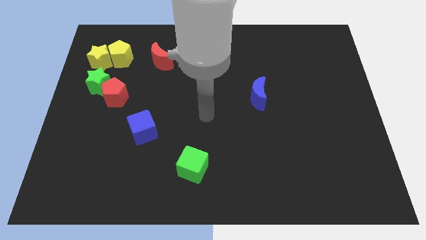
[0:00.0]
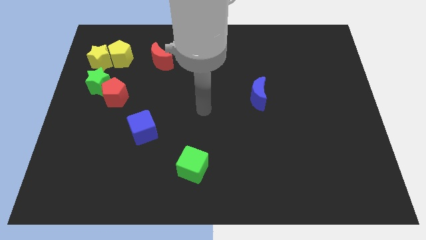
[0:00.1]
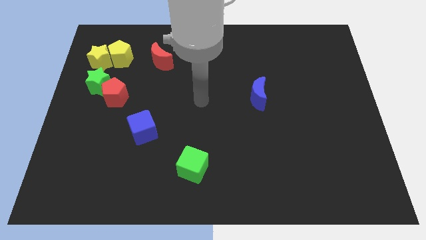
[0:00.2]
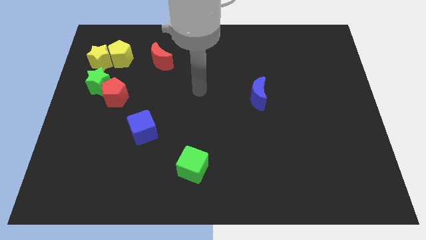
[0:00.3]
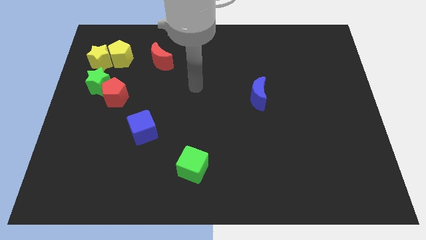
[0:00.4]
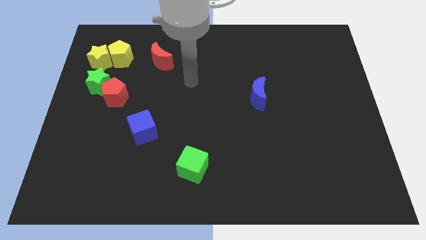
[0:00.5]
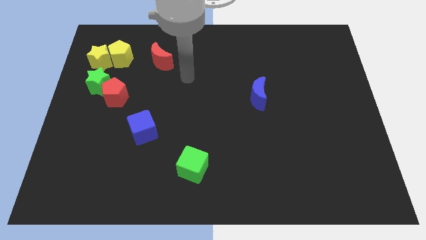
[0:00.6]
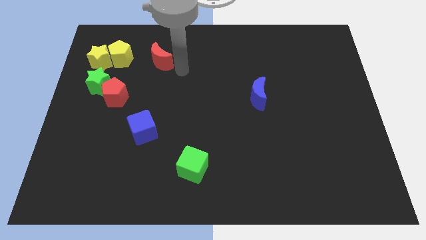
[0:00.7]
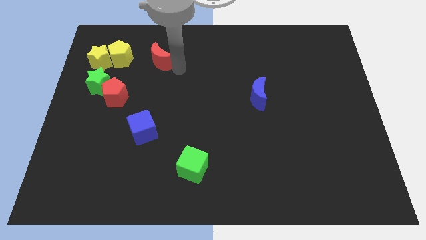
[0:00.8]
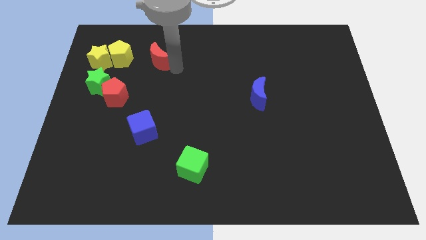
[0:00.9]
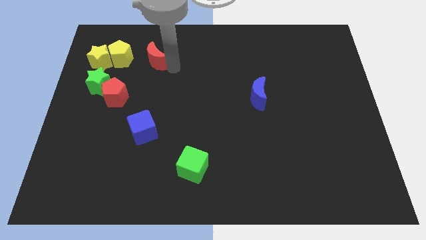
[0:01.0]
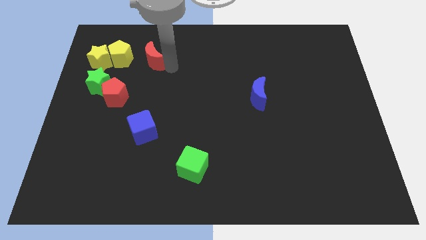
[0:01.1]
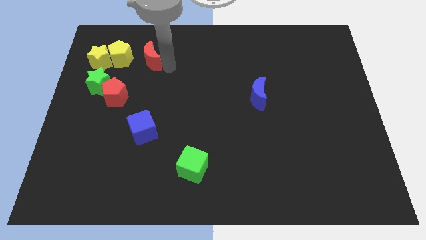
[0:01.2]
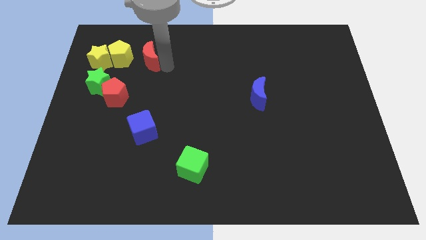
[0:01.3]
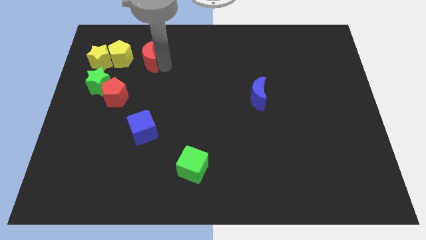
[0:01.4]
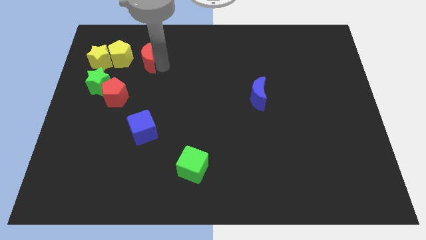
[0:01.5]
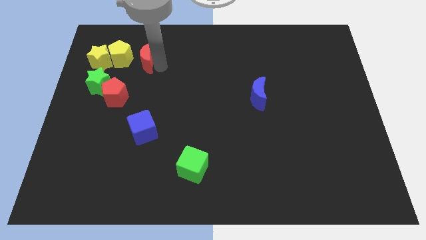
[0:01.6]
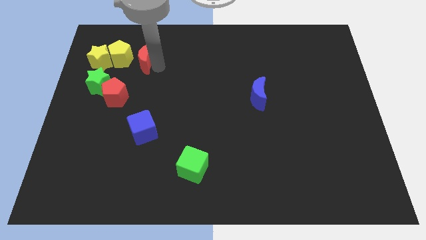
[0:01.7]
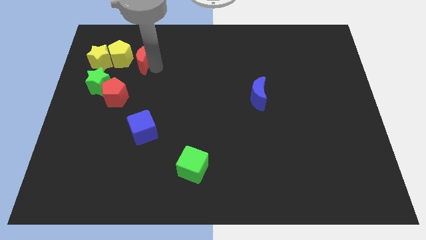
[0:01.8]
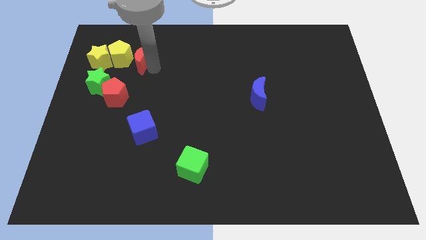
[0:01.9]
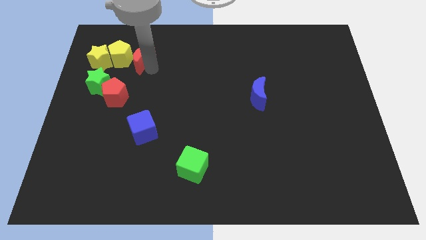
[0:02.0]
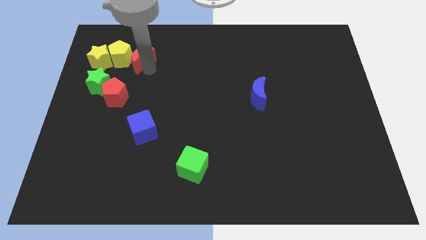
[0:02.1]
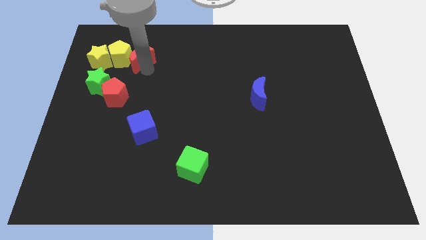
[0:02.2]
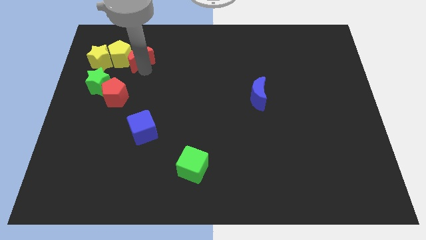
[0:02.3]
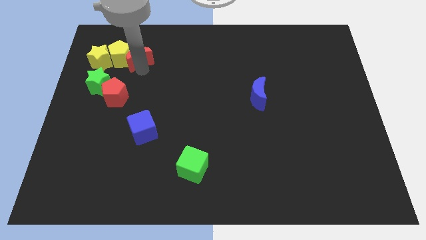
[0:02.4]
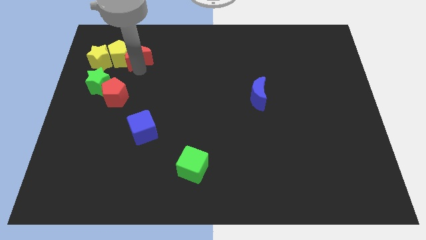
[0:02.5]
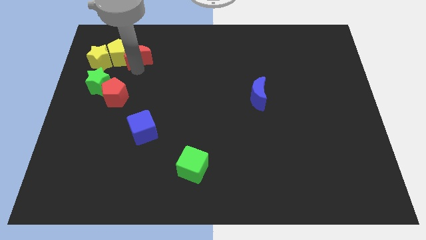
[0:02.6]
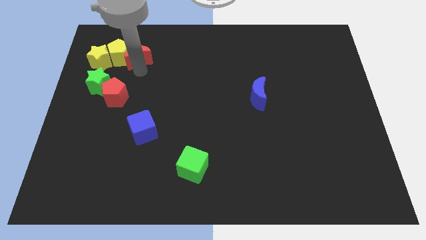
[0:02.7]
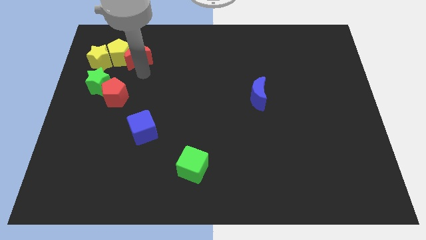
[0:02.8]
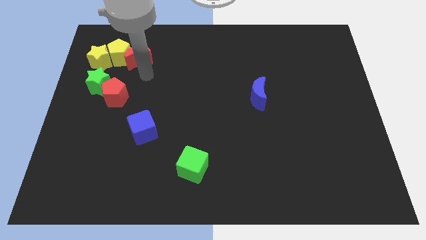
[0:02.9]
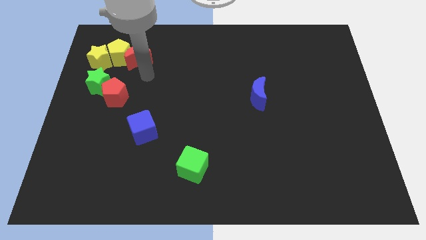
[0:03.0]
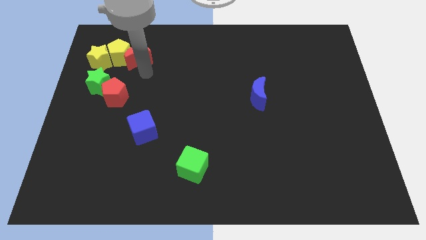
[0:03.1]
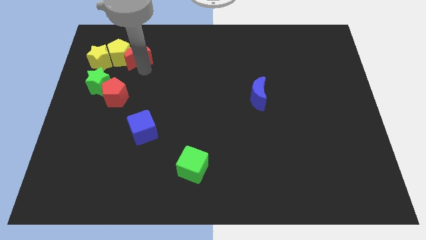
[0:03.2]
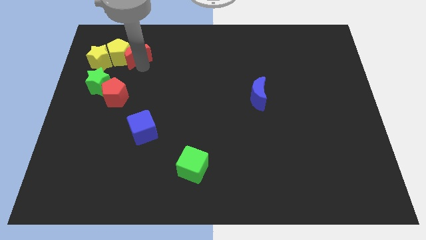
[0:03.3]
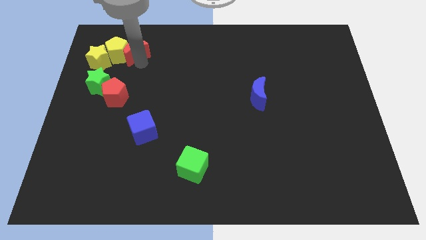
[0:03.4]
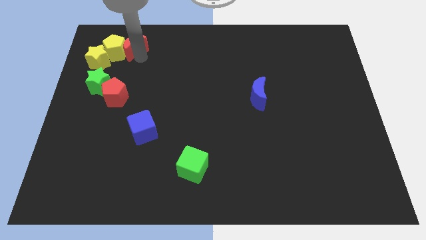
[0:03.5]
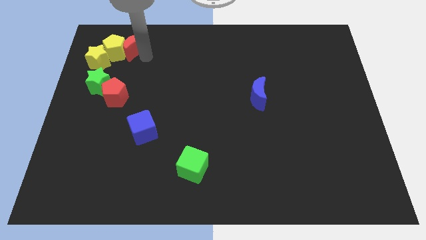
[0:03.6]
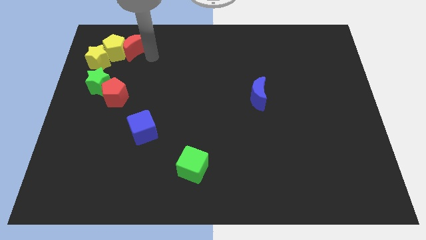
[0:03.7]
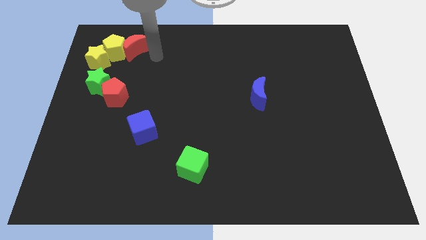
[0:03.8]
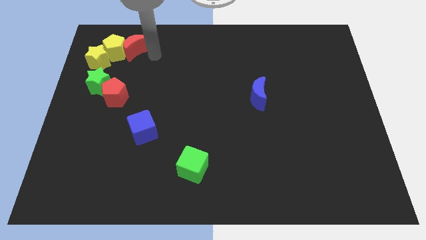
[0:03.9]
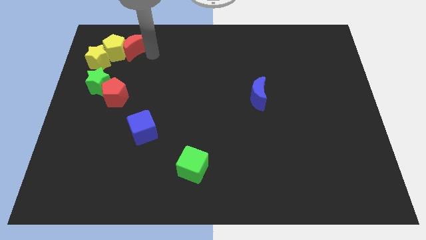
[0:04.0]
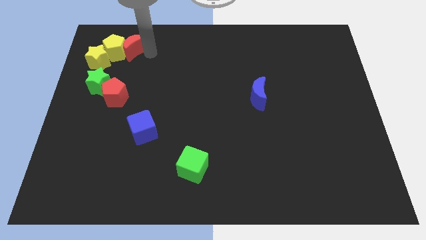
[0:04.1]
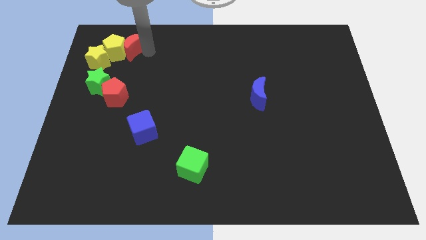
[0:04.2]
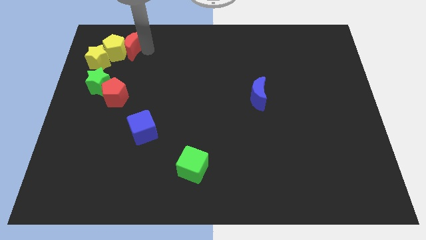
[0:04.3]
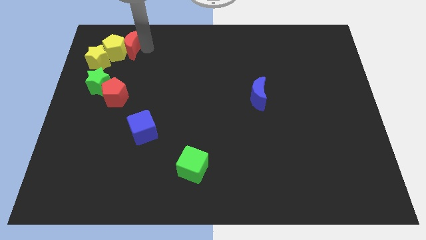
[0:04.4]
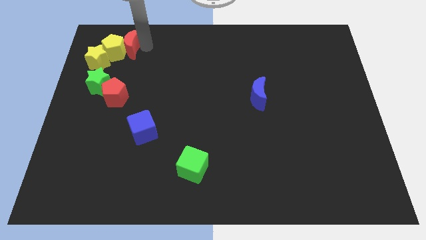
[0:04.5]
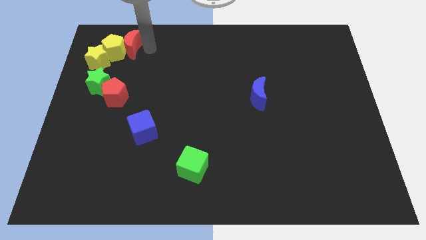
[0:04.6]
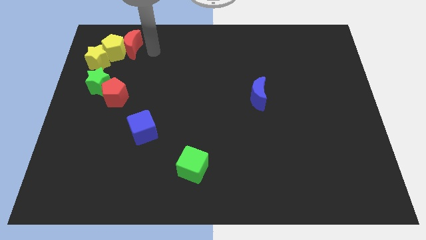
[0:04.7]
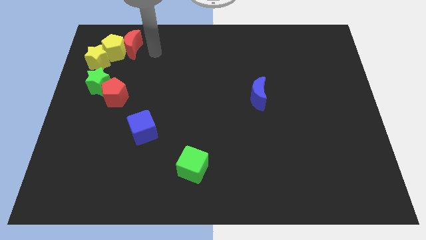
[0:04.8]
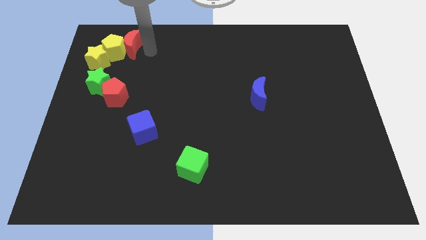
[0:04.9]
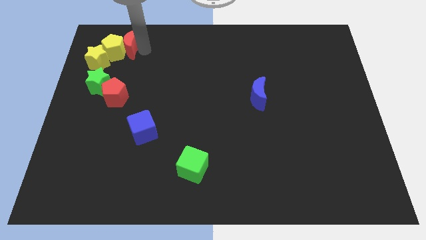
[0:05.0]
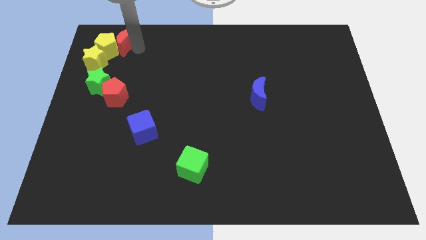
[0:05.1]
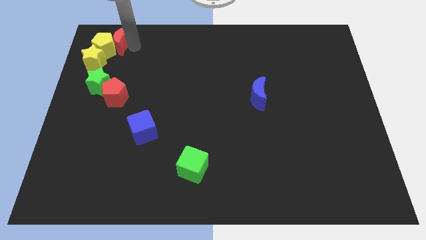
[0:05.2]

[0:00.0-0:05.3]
put the red moon above the green star

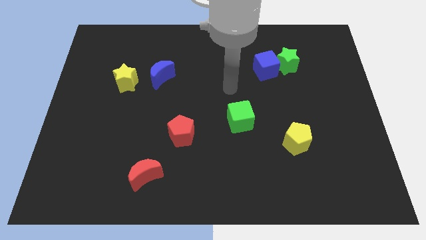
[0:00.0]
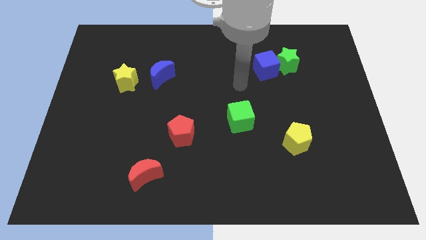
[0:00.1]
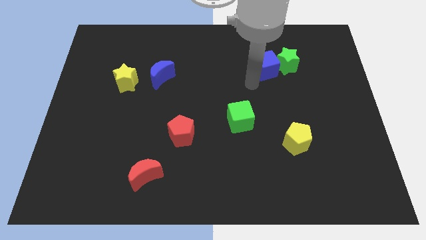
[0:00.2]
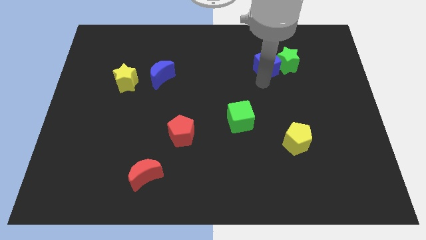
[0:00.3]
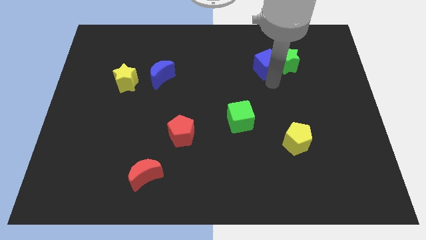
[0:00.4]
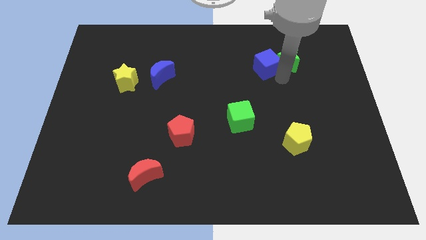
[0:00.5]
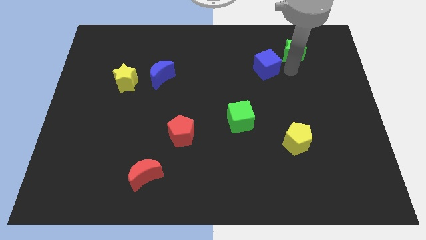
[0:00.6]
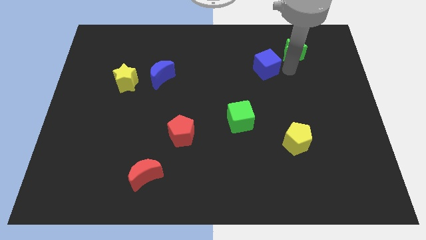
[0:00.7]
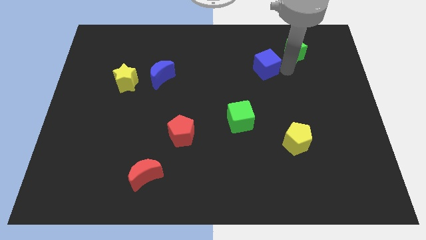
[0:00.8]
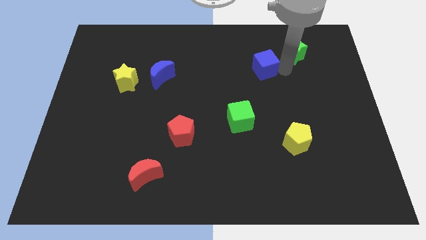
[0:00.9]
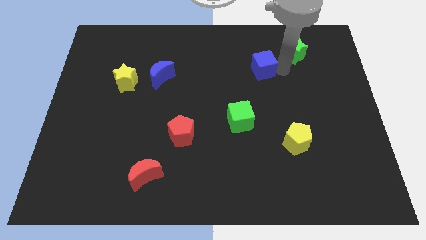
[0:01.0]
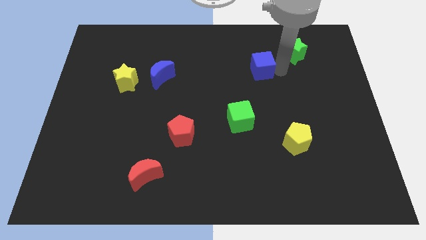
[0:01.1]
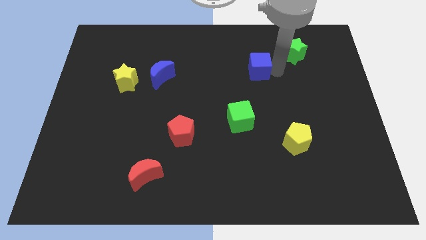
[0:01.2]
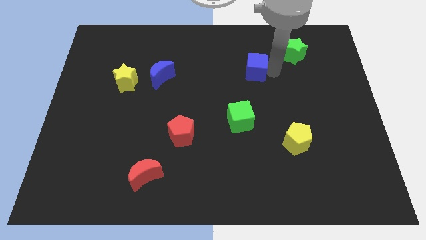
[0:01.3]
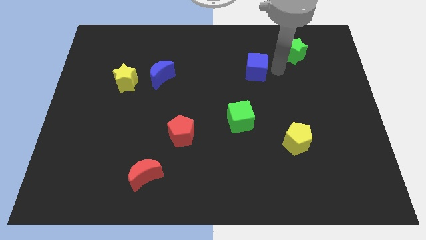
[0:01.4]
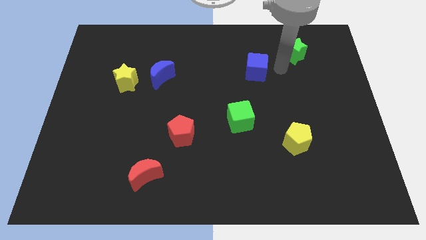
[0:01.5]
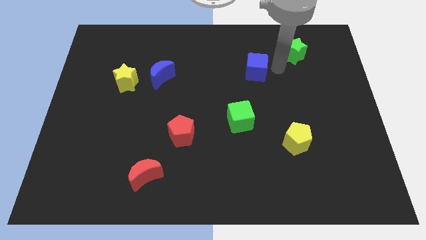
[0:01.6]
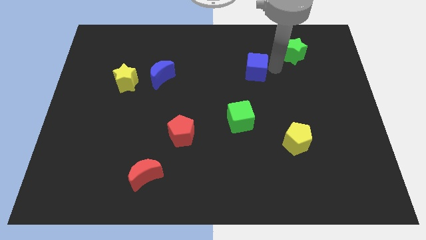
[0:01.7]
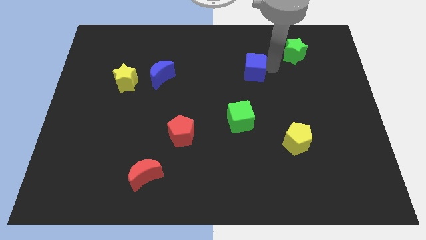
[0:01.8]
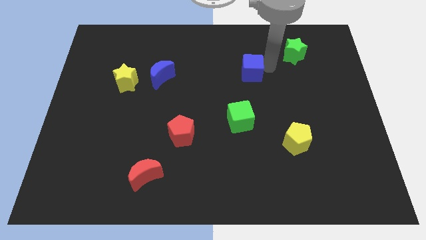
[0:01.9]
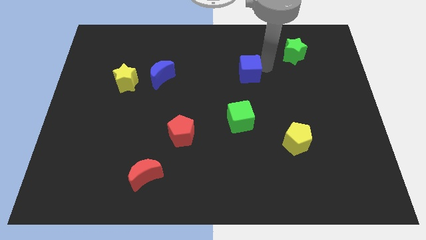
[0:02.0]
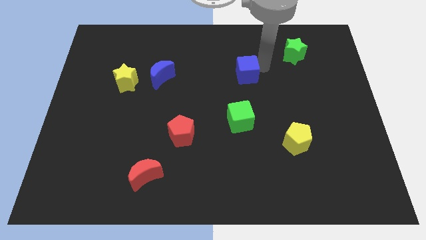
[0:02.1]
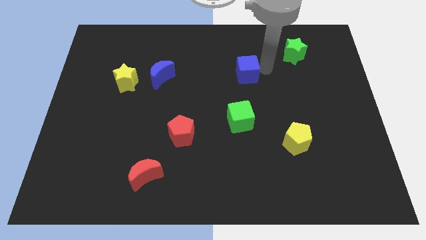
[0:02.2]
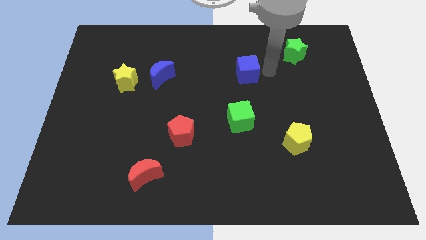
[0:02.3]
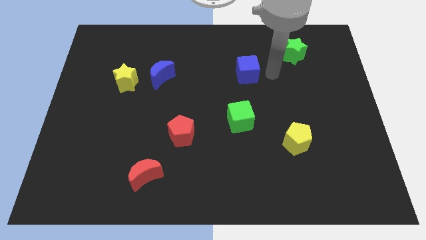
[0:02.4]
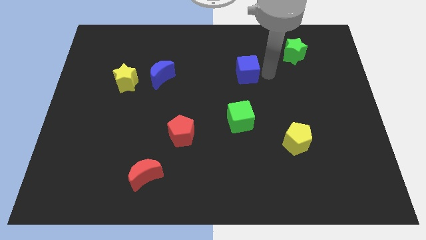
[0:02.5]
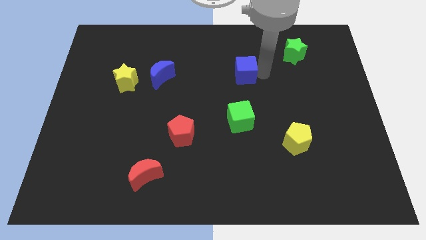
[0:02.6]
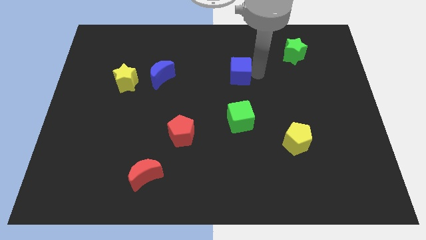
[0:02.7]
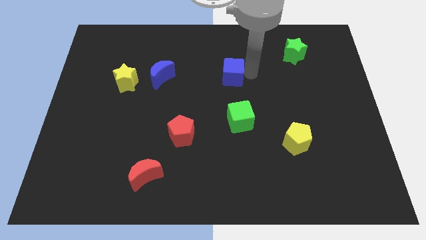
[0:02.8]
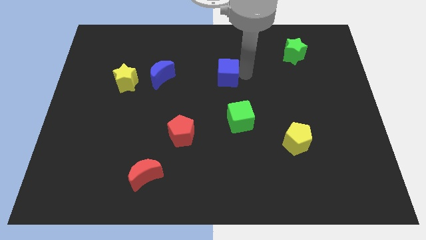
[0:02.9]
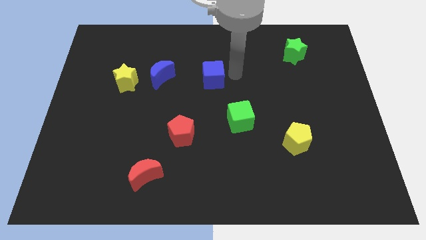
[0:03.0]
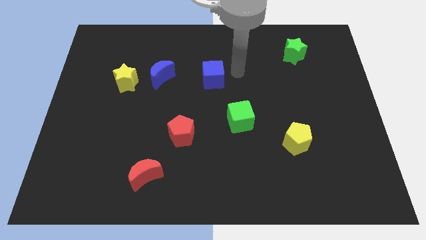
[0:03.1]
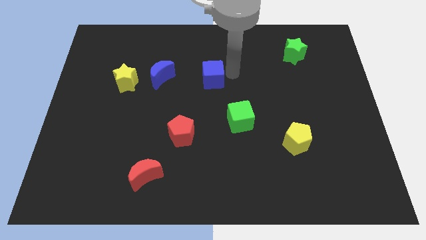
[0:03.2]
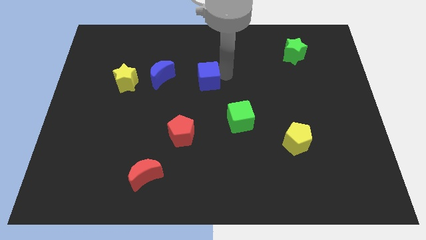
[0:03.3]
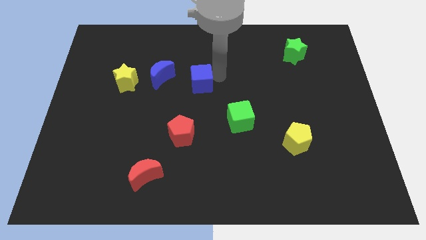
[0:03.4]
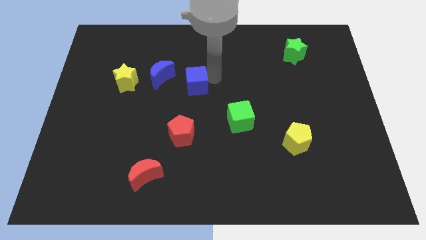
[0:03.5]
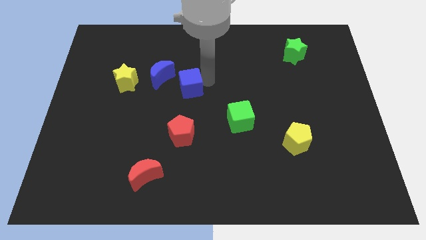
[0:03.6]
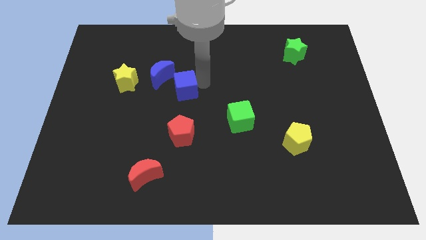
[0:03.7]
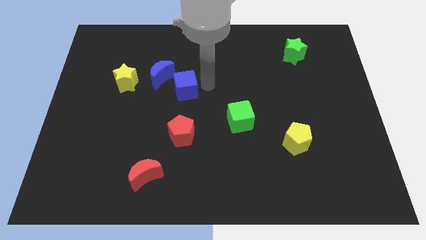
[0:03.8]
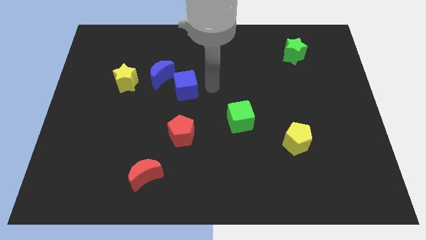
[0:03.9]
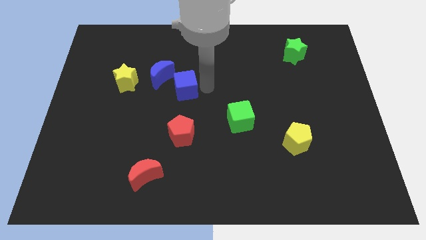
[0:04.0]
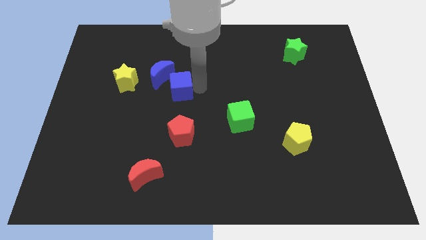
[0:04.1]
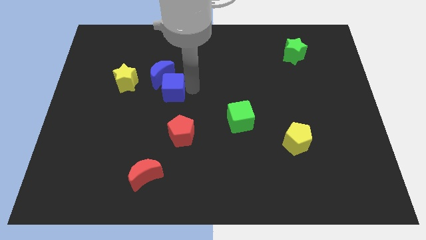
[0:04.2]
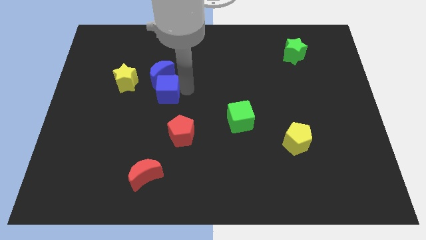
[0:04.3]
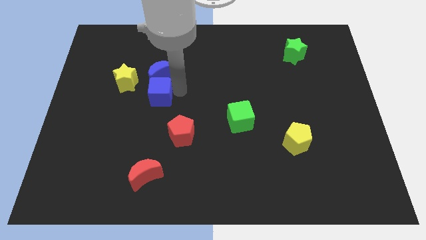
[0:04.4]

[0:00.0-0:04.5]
move the blue cube to the bottom left of the blue moon
